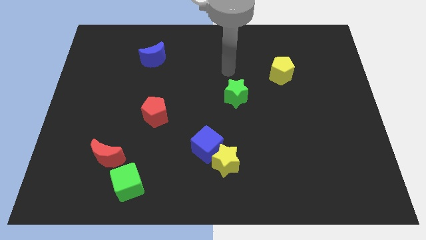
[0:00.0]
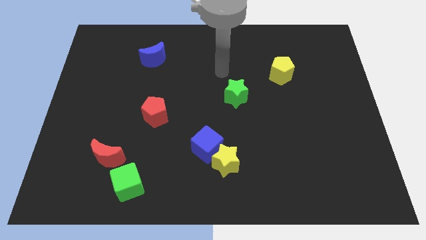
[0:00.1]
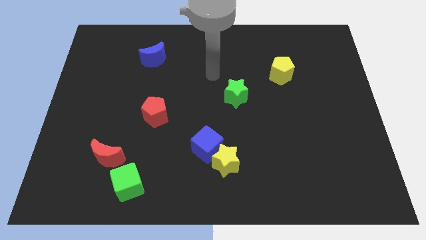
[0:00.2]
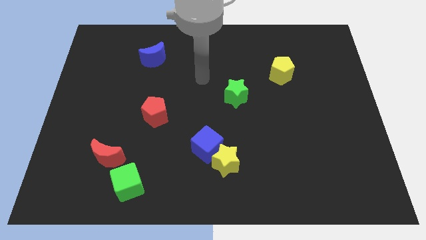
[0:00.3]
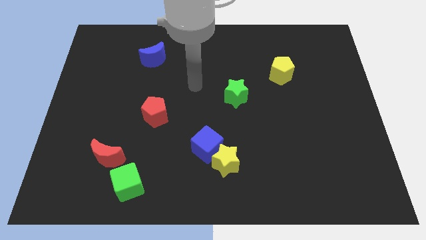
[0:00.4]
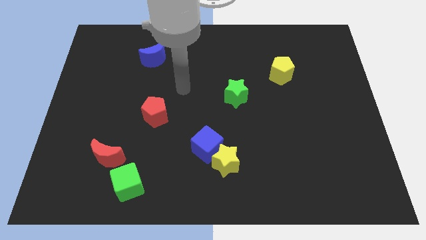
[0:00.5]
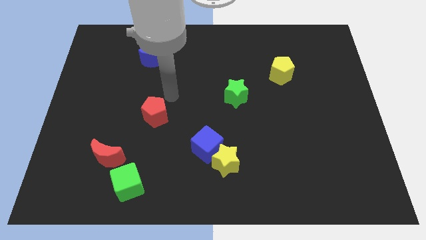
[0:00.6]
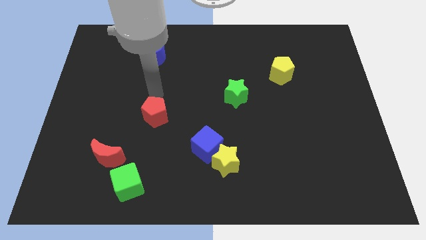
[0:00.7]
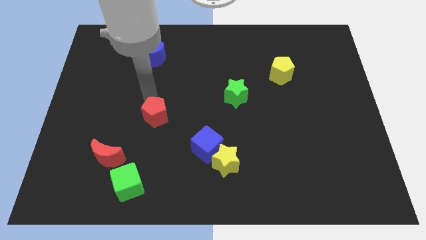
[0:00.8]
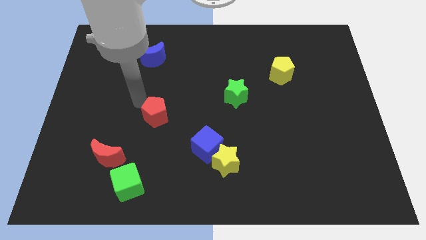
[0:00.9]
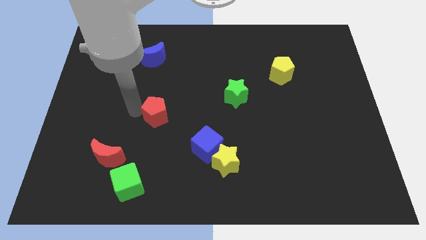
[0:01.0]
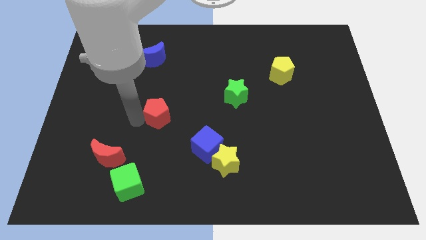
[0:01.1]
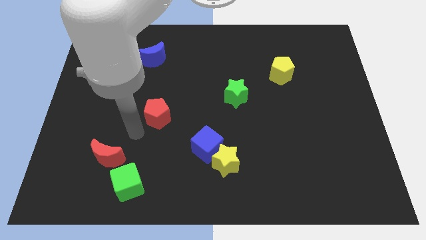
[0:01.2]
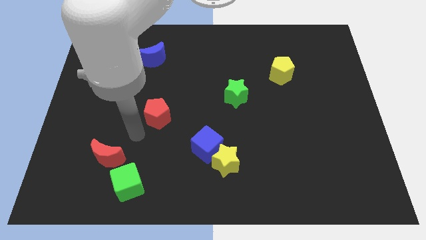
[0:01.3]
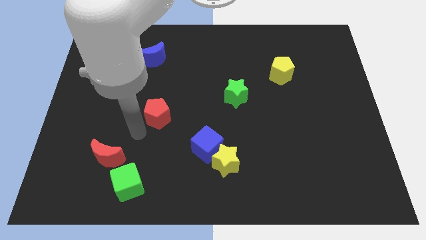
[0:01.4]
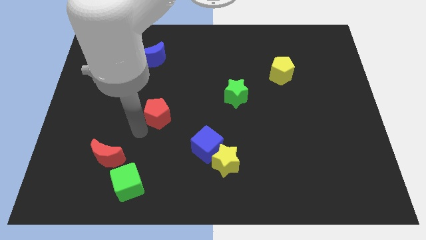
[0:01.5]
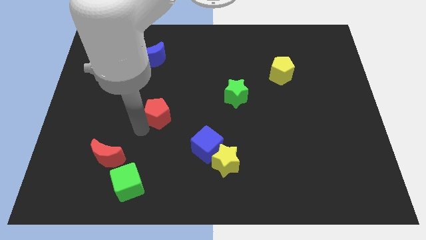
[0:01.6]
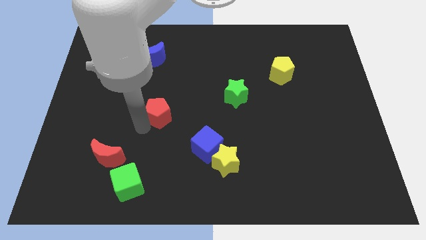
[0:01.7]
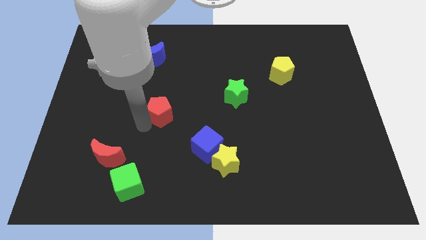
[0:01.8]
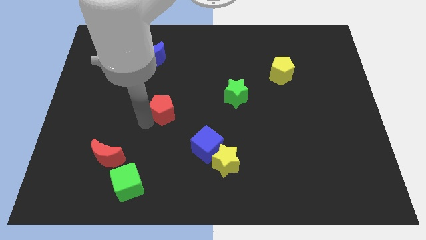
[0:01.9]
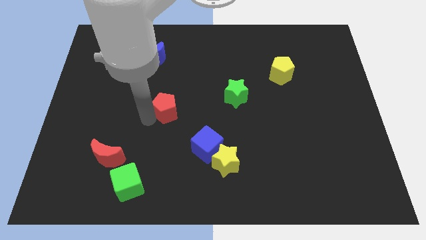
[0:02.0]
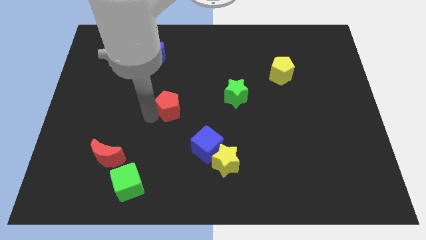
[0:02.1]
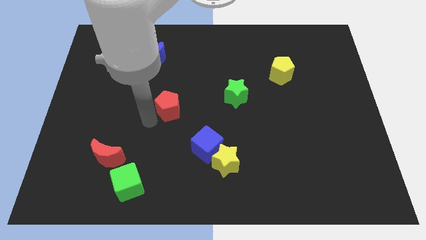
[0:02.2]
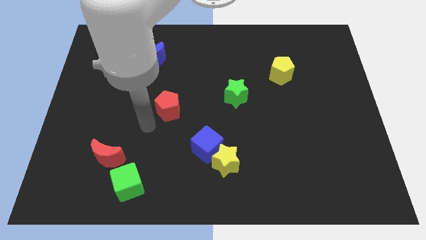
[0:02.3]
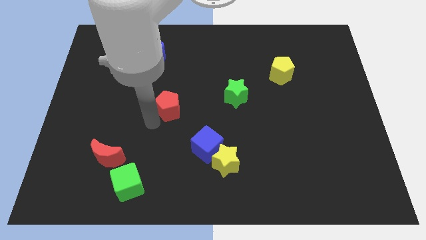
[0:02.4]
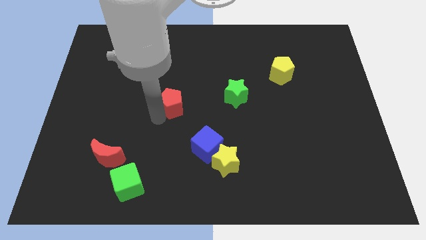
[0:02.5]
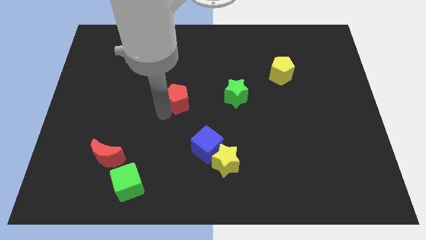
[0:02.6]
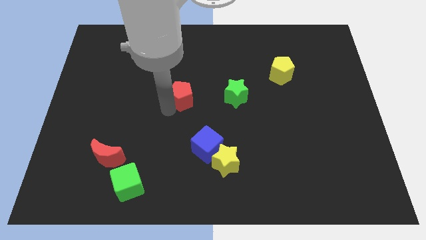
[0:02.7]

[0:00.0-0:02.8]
slightly push the red pentagon diagonally up and to the right

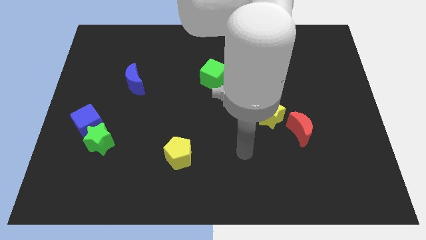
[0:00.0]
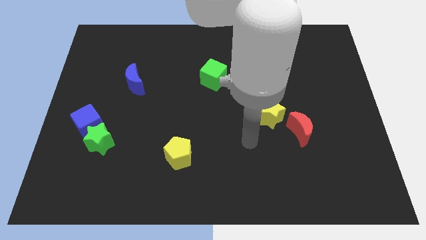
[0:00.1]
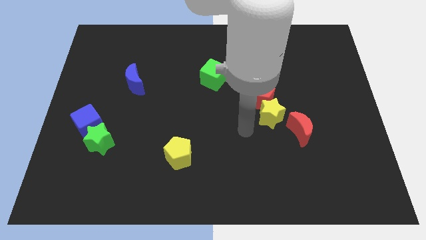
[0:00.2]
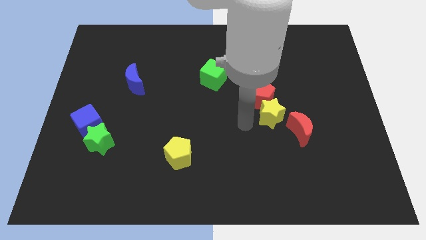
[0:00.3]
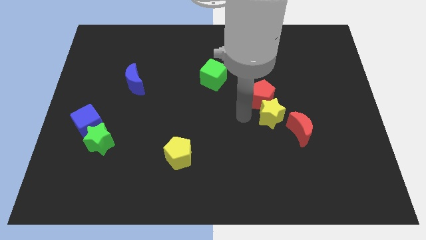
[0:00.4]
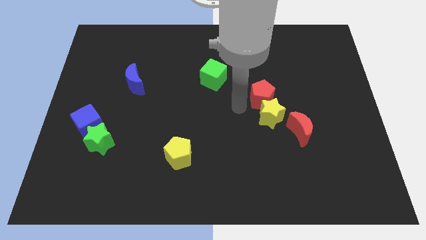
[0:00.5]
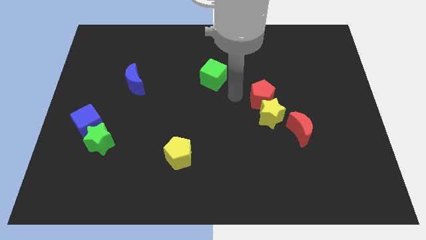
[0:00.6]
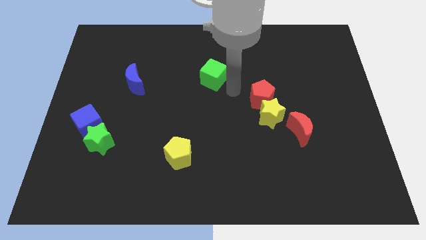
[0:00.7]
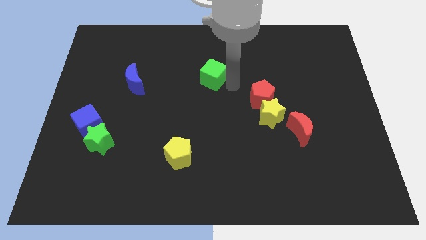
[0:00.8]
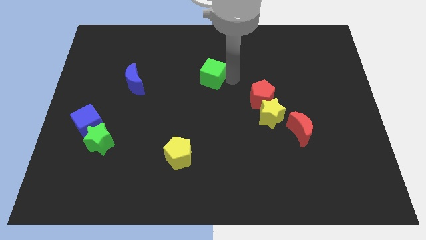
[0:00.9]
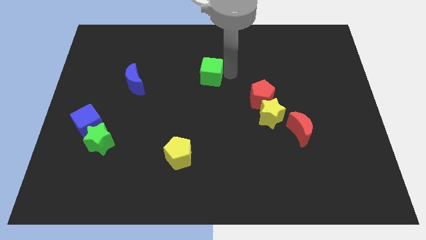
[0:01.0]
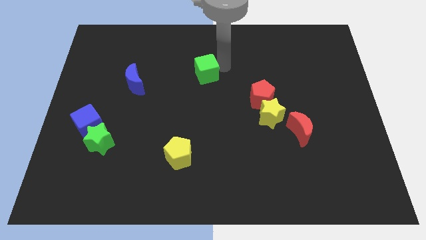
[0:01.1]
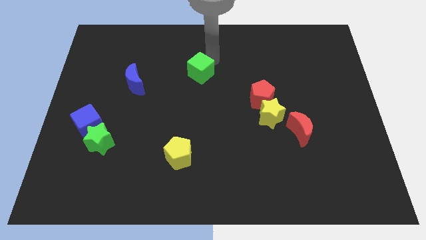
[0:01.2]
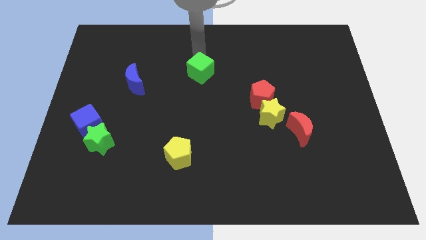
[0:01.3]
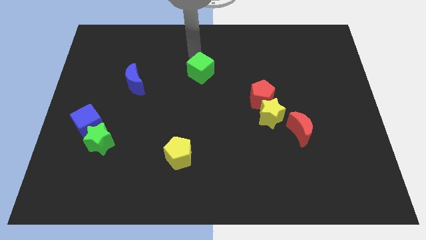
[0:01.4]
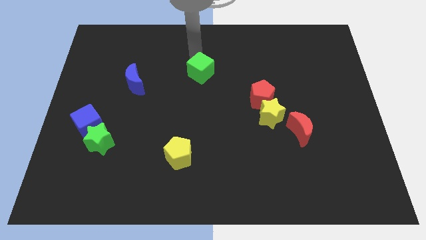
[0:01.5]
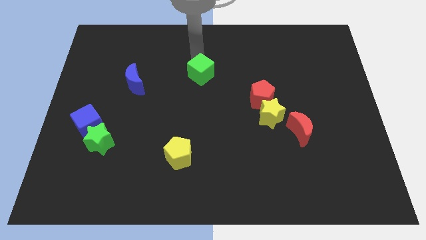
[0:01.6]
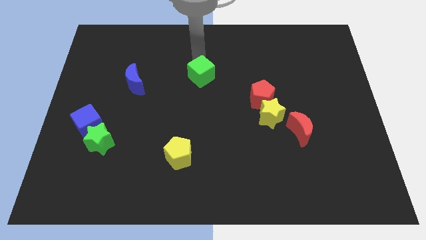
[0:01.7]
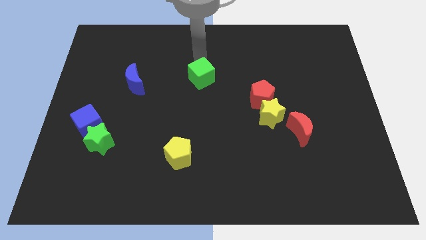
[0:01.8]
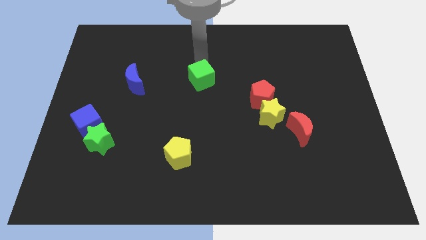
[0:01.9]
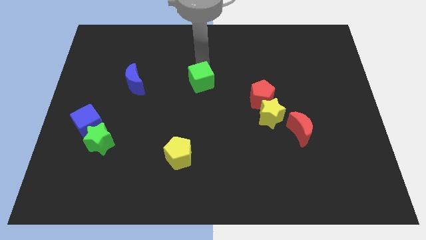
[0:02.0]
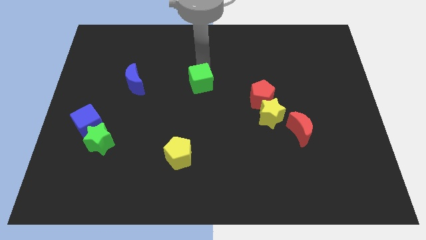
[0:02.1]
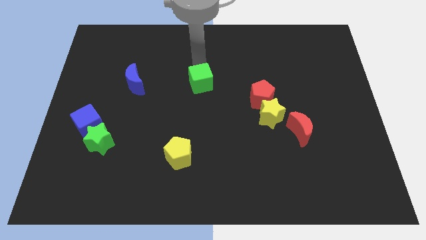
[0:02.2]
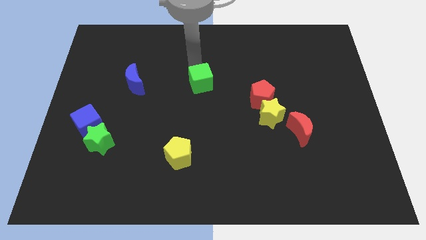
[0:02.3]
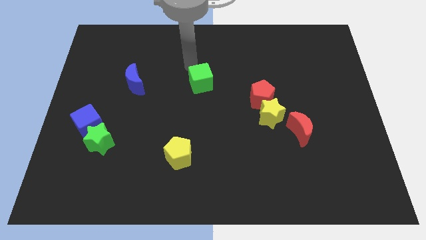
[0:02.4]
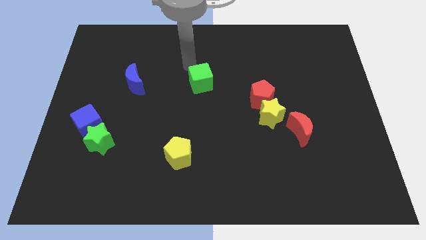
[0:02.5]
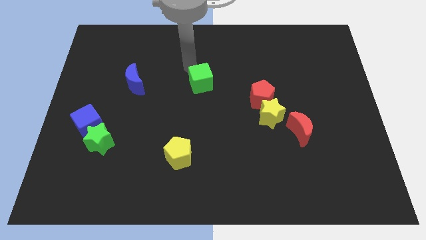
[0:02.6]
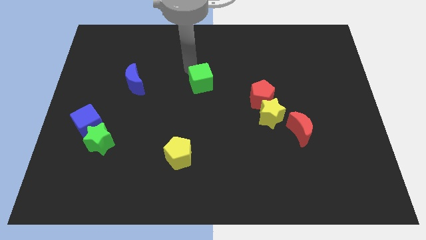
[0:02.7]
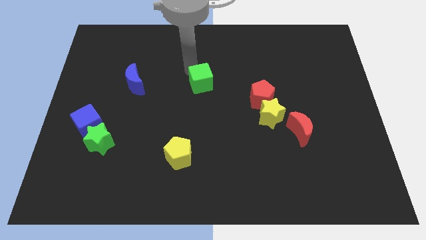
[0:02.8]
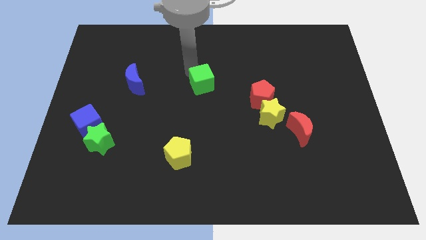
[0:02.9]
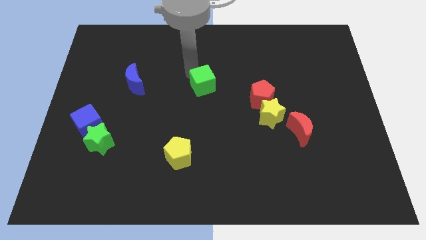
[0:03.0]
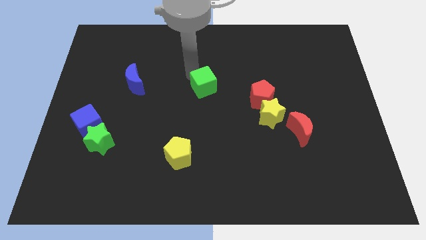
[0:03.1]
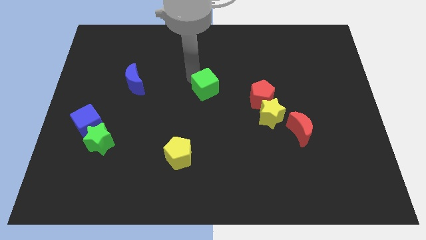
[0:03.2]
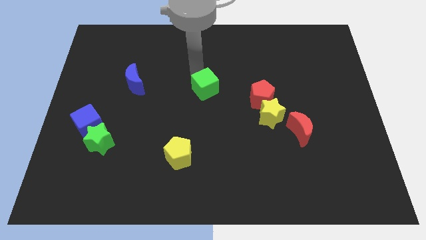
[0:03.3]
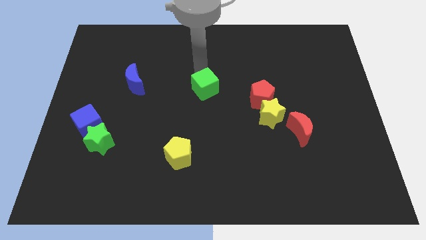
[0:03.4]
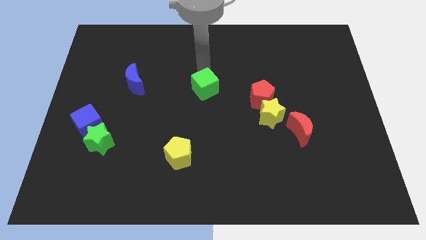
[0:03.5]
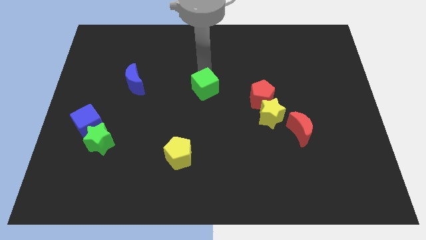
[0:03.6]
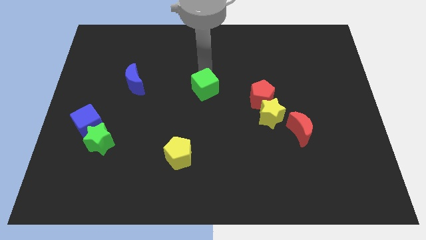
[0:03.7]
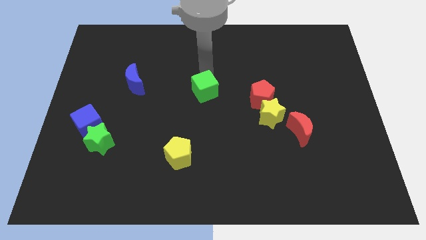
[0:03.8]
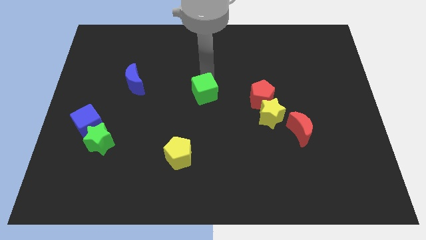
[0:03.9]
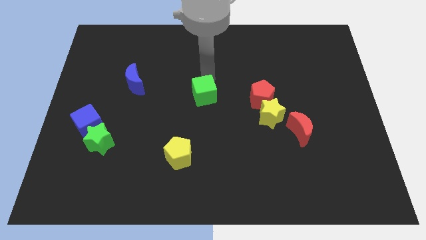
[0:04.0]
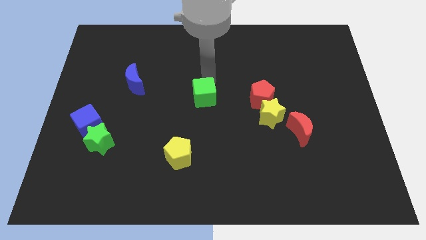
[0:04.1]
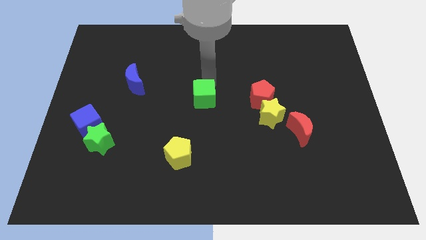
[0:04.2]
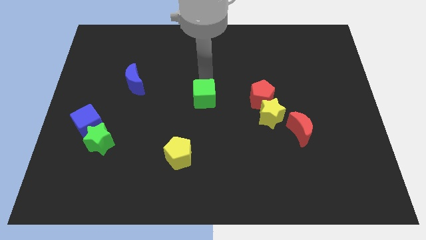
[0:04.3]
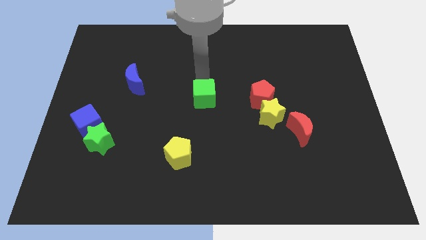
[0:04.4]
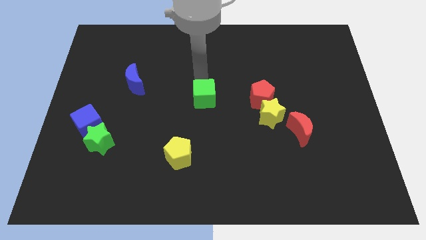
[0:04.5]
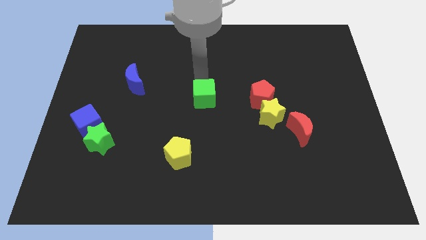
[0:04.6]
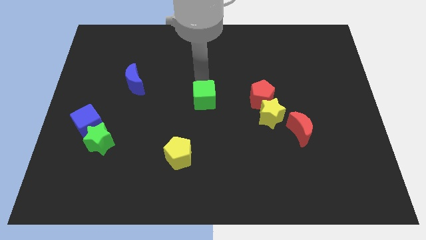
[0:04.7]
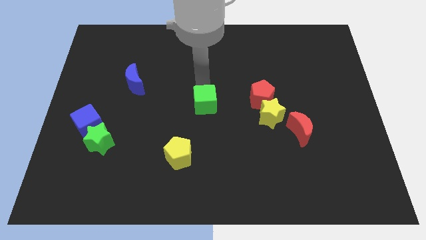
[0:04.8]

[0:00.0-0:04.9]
slide the green cube slightly down

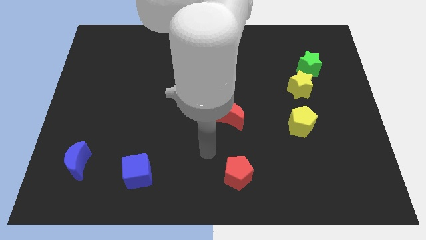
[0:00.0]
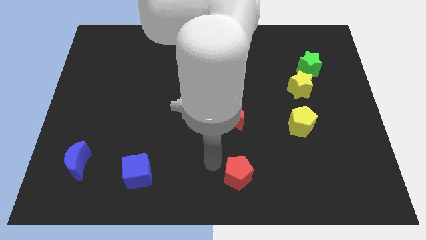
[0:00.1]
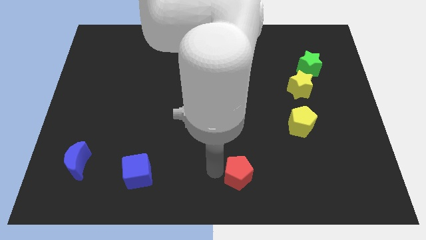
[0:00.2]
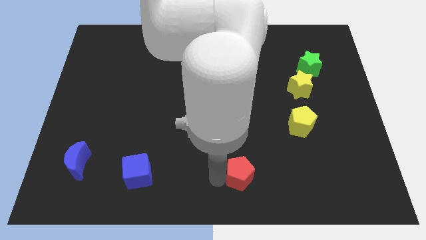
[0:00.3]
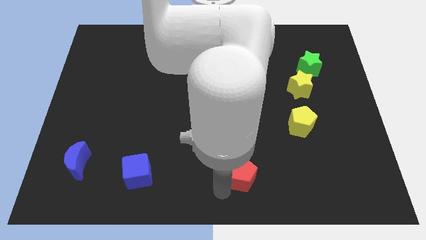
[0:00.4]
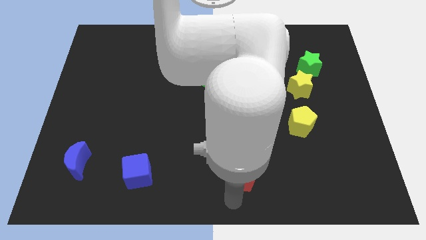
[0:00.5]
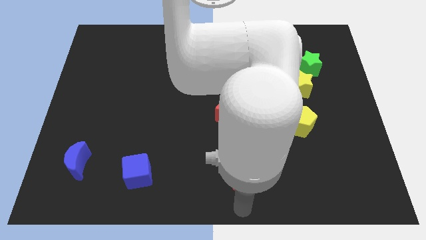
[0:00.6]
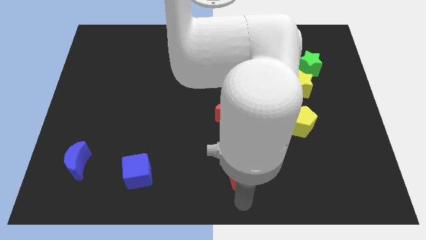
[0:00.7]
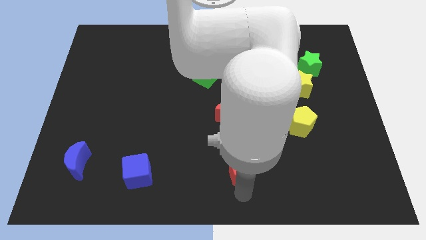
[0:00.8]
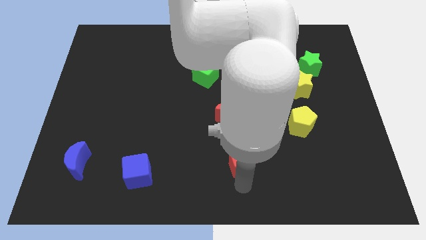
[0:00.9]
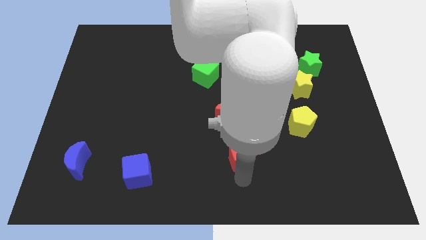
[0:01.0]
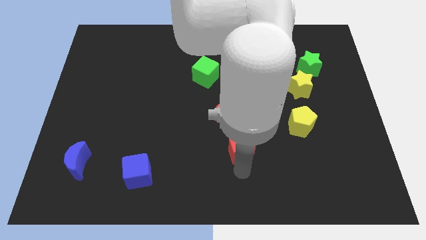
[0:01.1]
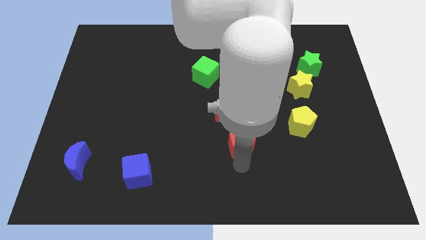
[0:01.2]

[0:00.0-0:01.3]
slightly push the red pentagon up
